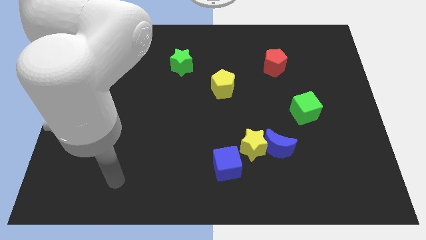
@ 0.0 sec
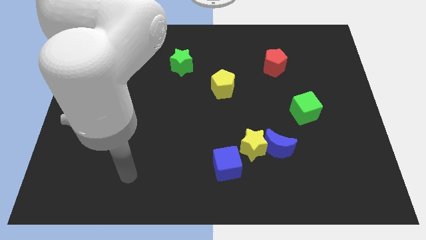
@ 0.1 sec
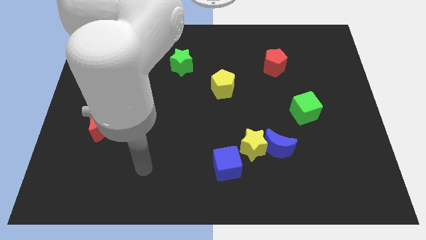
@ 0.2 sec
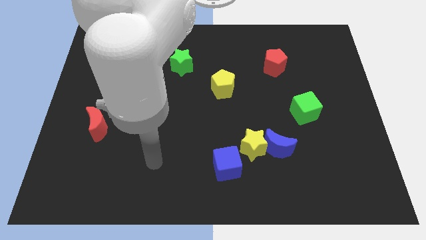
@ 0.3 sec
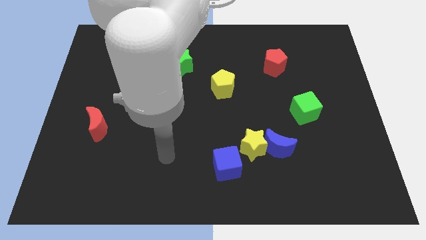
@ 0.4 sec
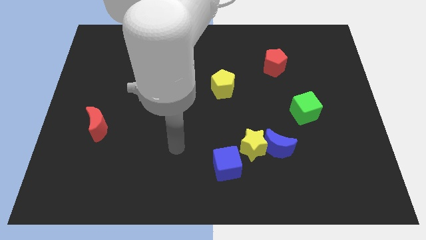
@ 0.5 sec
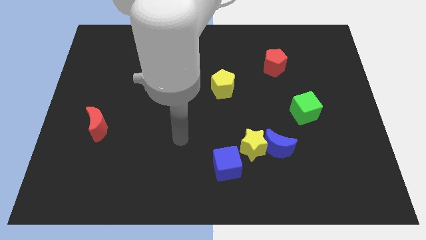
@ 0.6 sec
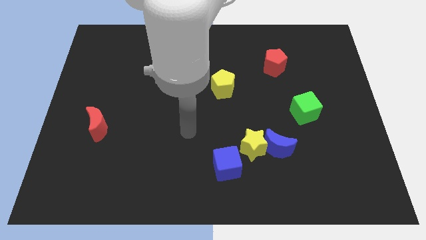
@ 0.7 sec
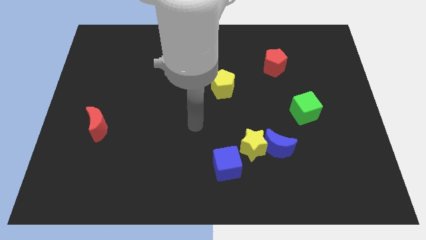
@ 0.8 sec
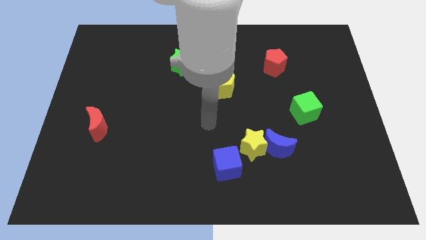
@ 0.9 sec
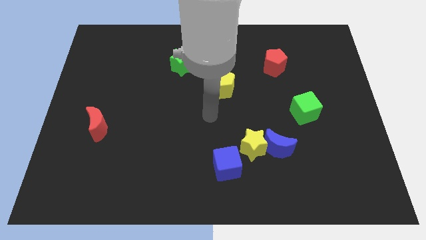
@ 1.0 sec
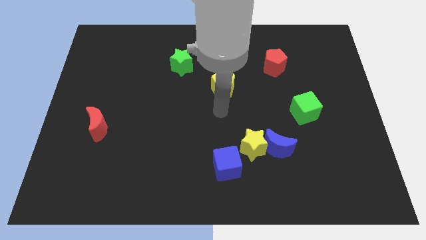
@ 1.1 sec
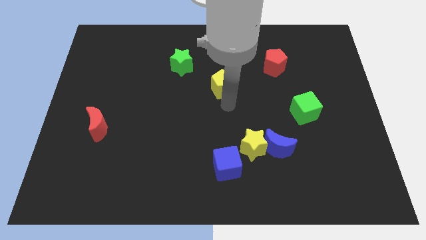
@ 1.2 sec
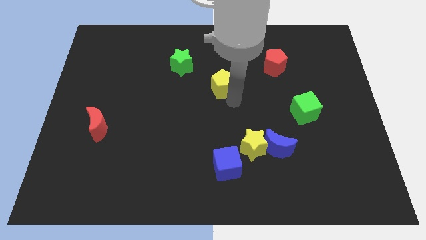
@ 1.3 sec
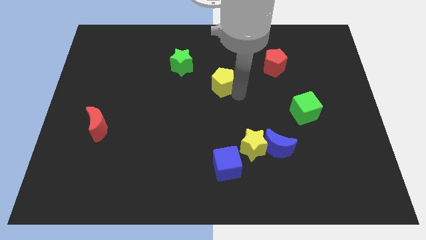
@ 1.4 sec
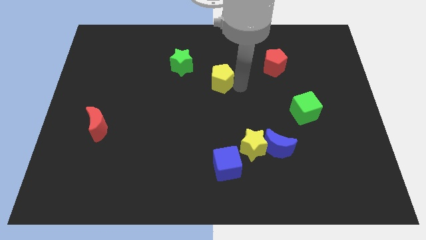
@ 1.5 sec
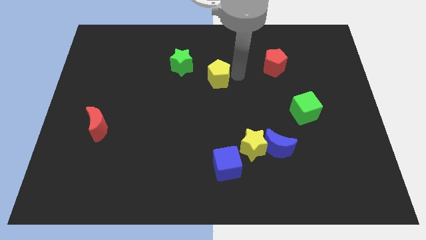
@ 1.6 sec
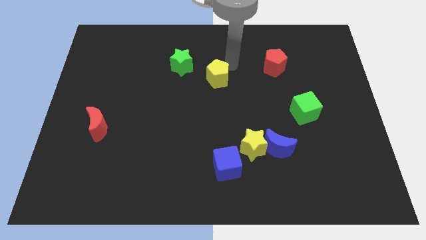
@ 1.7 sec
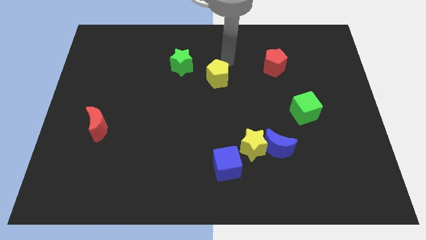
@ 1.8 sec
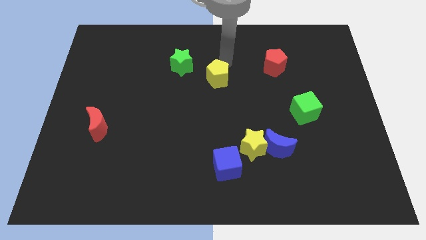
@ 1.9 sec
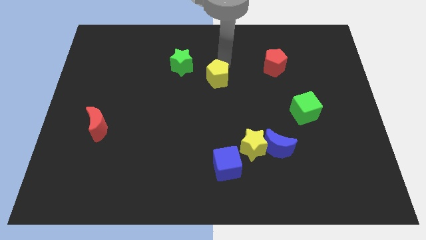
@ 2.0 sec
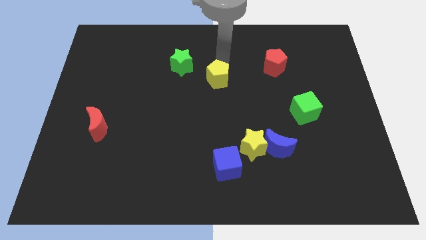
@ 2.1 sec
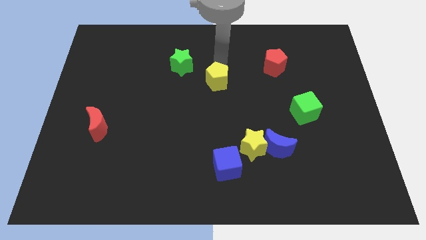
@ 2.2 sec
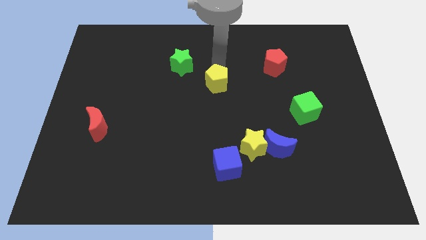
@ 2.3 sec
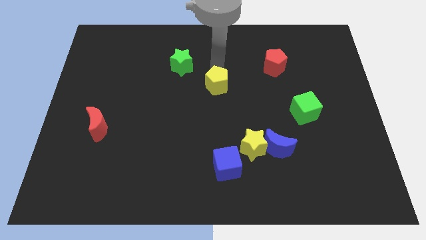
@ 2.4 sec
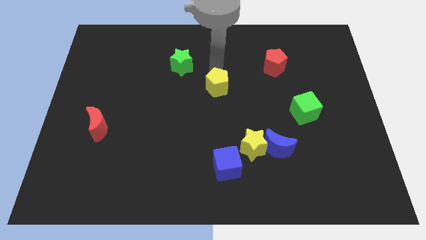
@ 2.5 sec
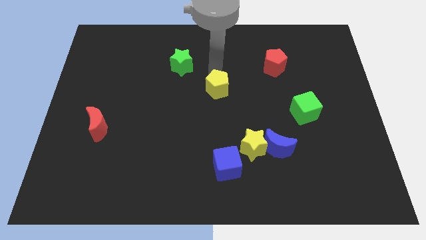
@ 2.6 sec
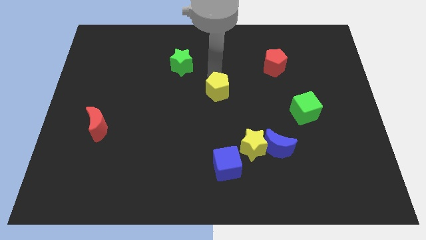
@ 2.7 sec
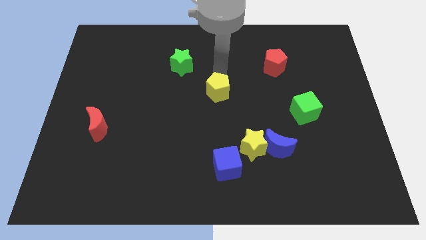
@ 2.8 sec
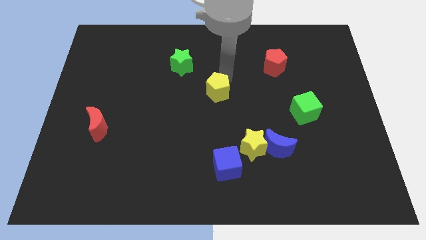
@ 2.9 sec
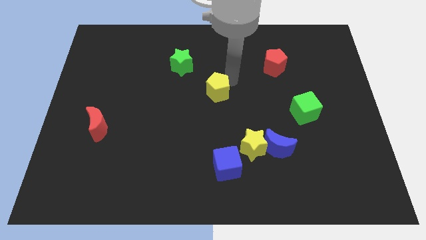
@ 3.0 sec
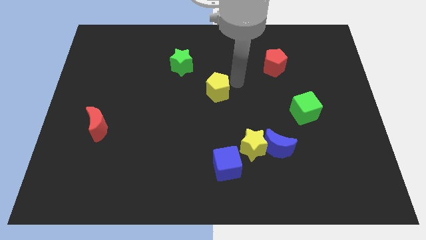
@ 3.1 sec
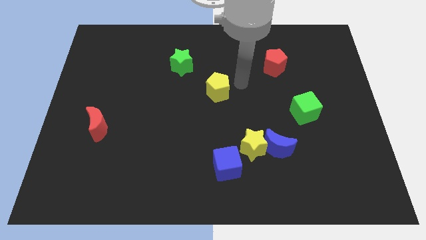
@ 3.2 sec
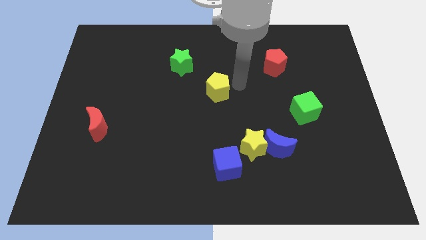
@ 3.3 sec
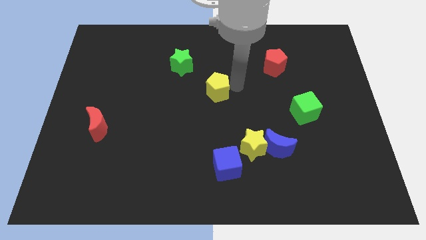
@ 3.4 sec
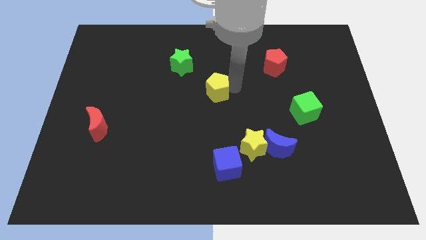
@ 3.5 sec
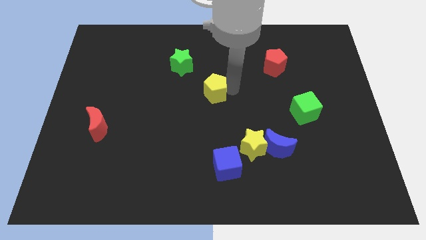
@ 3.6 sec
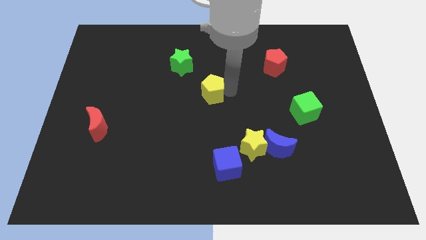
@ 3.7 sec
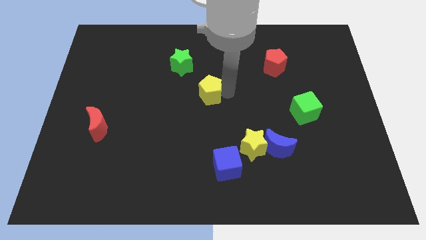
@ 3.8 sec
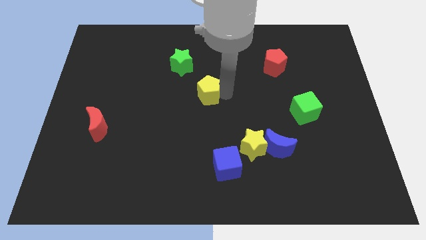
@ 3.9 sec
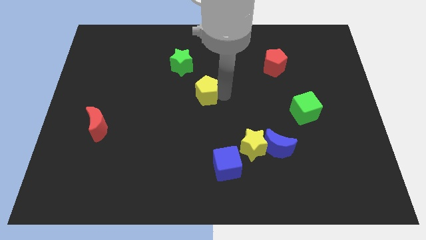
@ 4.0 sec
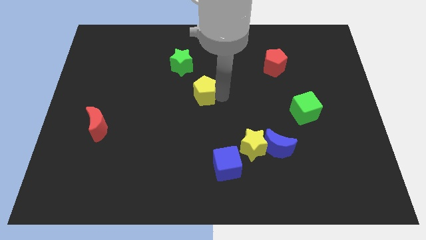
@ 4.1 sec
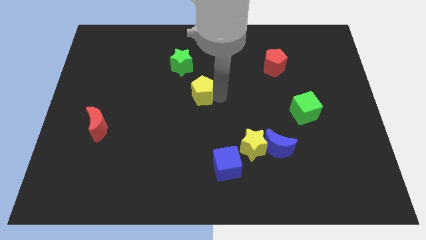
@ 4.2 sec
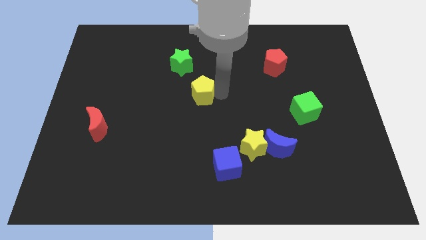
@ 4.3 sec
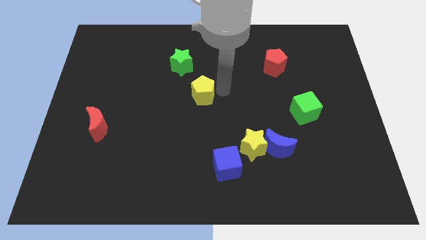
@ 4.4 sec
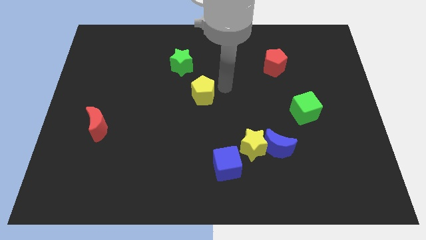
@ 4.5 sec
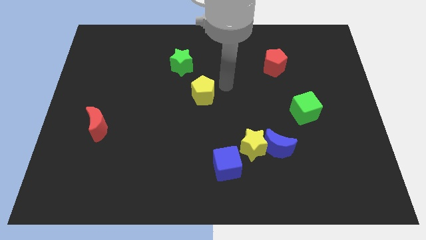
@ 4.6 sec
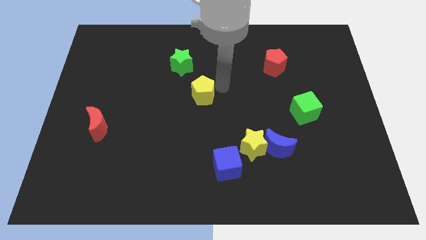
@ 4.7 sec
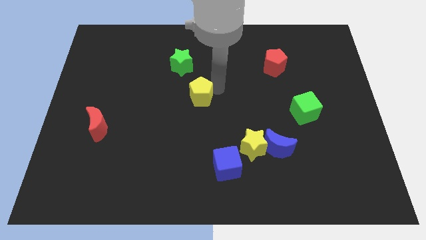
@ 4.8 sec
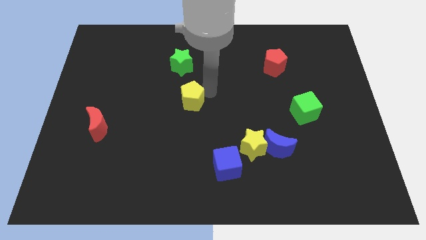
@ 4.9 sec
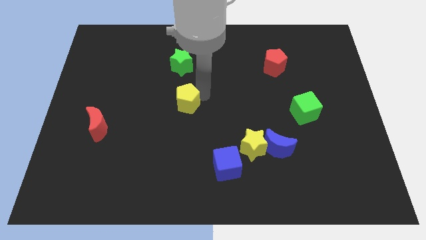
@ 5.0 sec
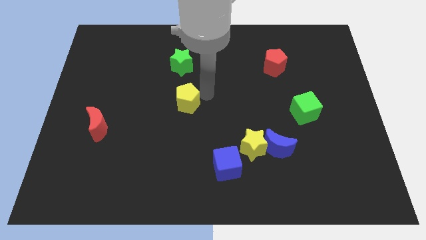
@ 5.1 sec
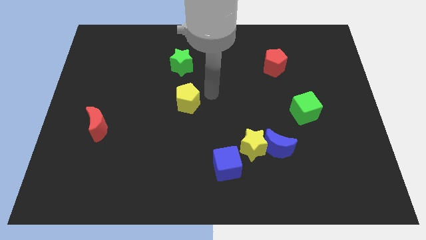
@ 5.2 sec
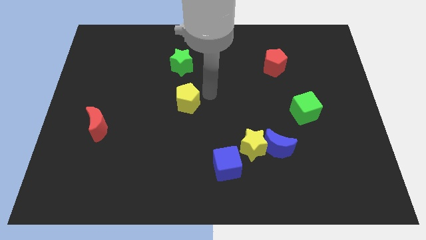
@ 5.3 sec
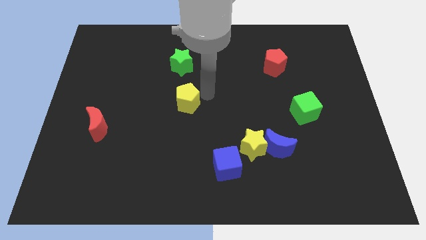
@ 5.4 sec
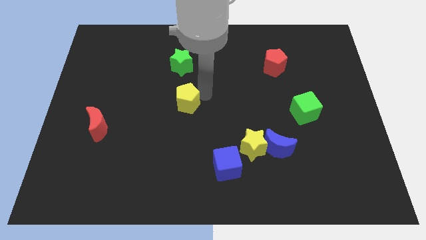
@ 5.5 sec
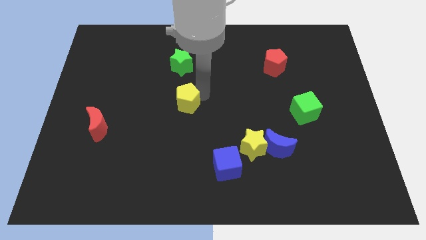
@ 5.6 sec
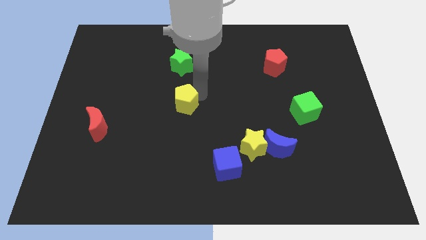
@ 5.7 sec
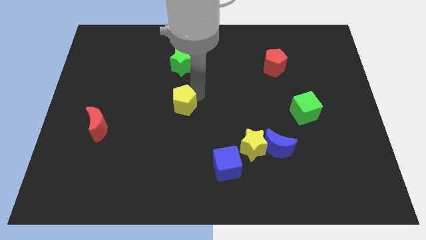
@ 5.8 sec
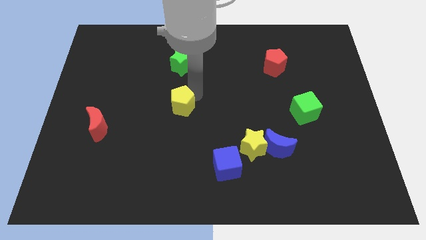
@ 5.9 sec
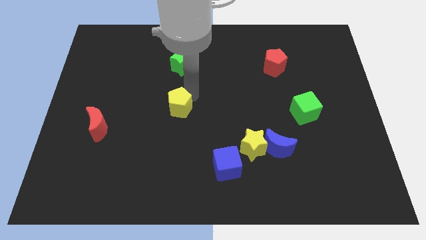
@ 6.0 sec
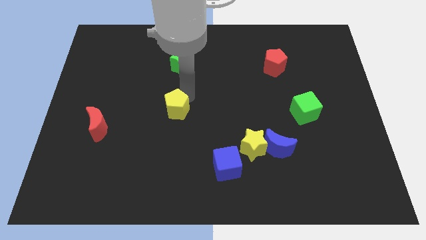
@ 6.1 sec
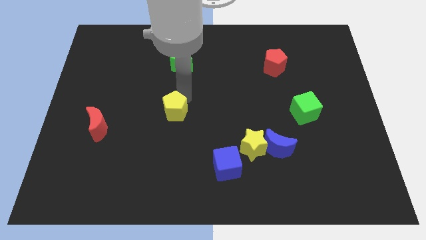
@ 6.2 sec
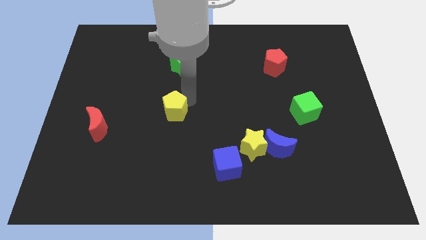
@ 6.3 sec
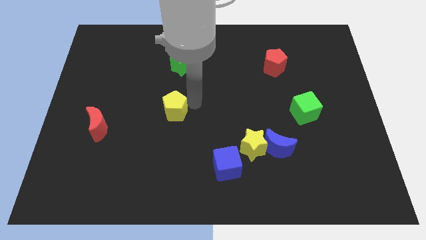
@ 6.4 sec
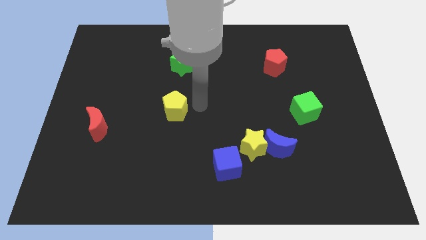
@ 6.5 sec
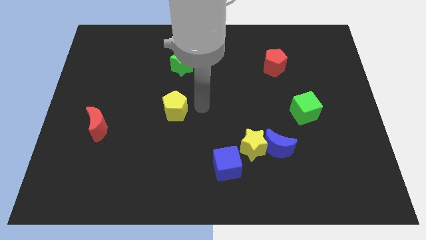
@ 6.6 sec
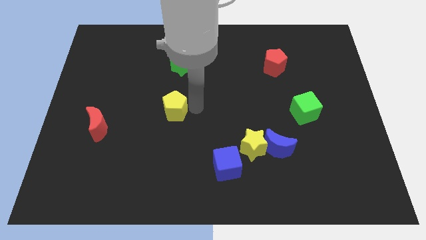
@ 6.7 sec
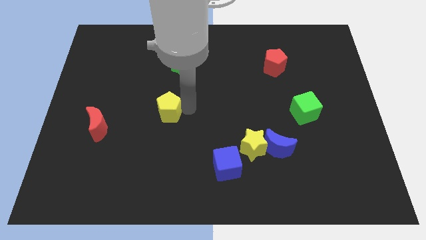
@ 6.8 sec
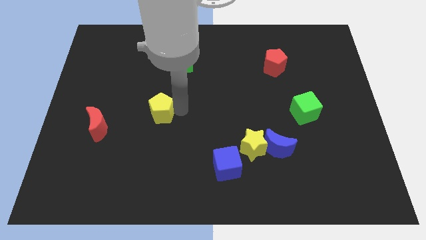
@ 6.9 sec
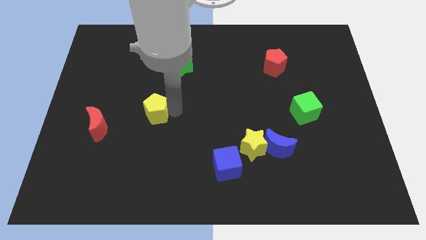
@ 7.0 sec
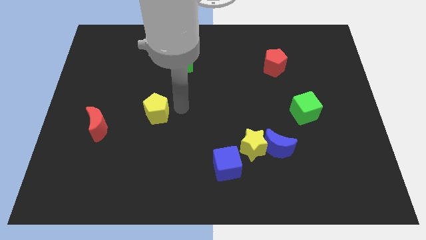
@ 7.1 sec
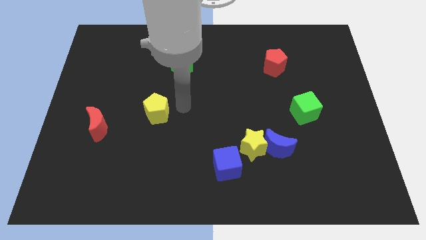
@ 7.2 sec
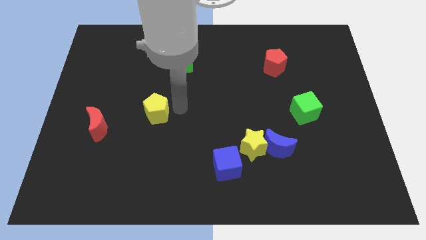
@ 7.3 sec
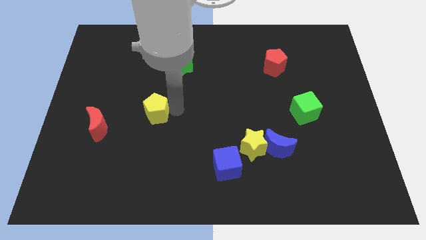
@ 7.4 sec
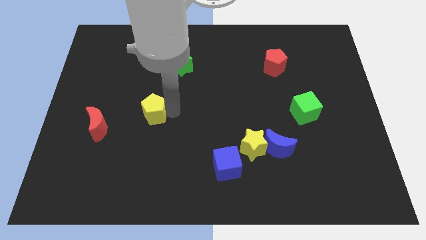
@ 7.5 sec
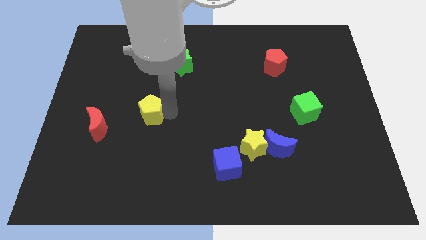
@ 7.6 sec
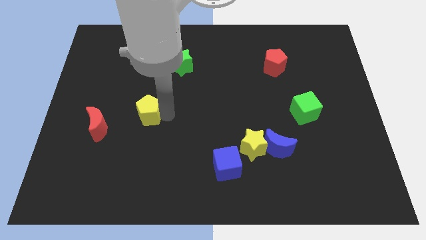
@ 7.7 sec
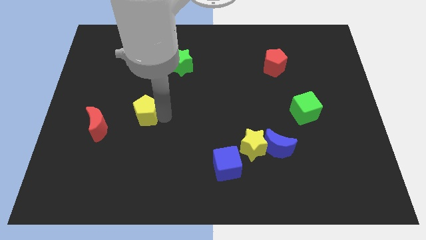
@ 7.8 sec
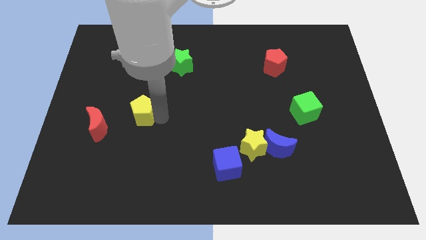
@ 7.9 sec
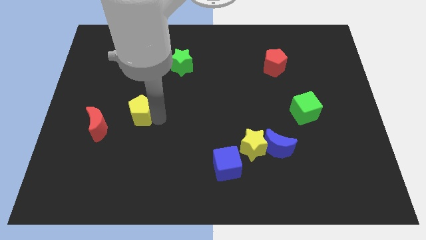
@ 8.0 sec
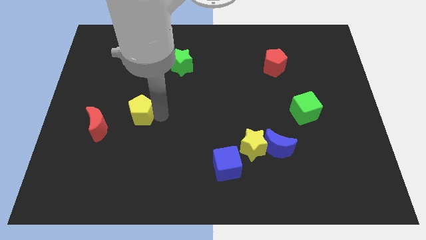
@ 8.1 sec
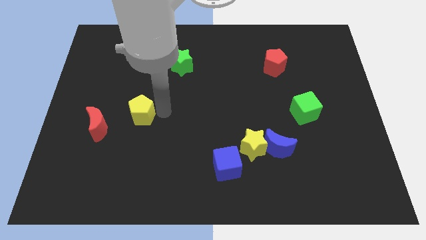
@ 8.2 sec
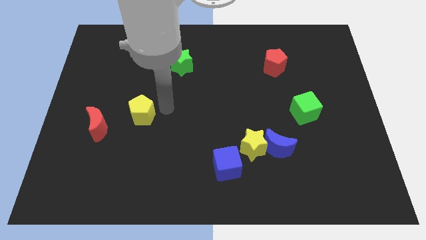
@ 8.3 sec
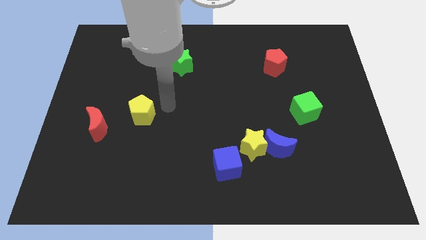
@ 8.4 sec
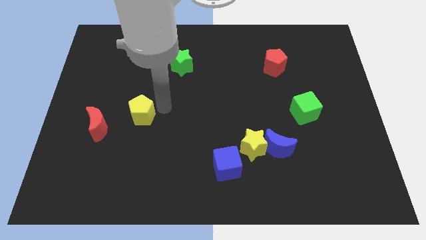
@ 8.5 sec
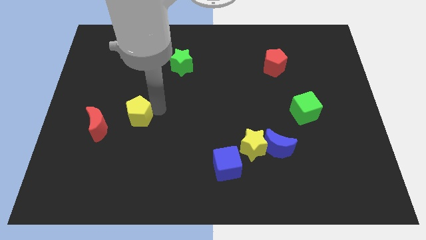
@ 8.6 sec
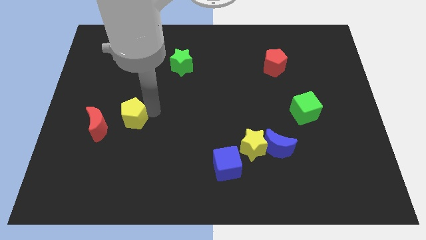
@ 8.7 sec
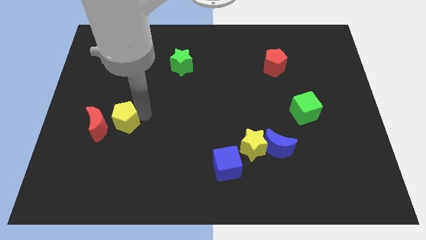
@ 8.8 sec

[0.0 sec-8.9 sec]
move the yellow pentagon towards the red moon
